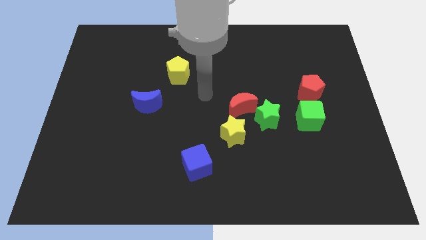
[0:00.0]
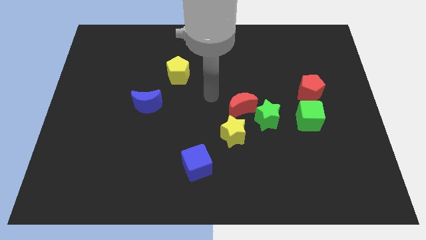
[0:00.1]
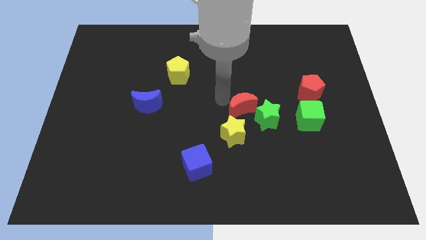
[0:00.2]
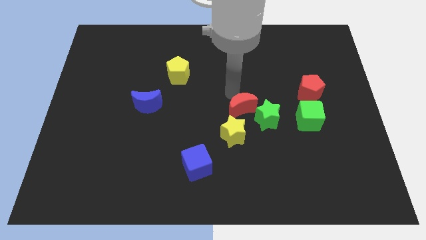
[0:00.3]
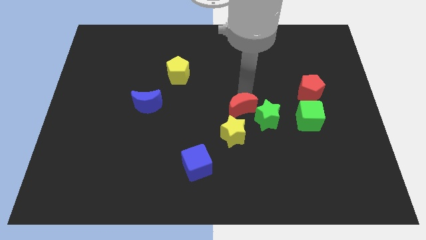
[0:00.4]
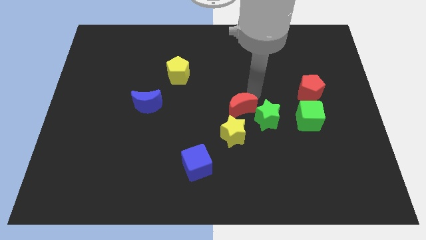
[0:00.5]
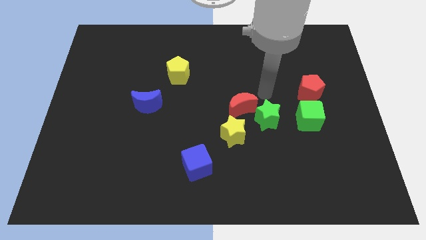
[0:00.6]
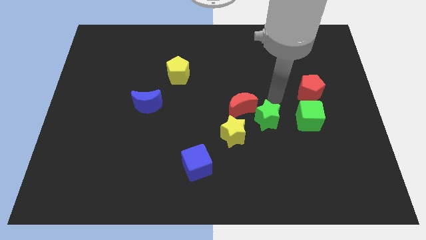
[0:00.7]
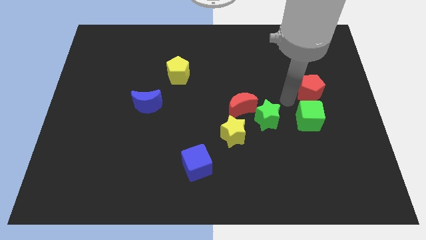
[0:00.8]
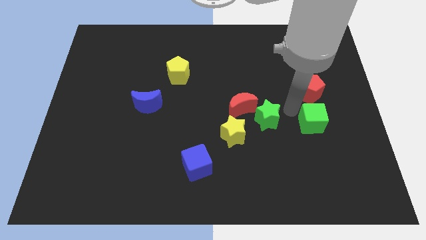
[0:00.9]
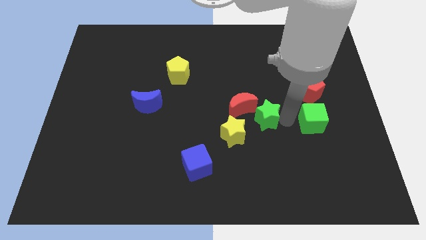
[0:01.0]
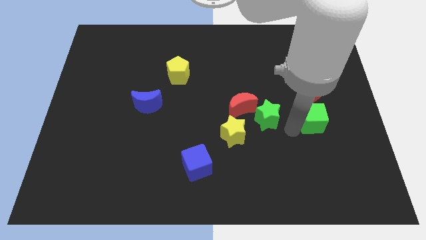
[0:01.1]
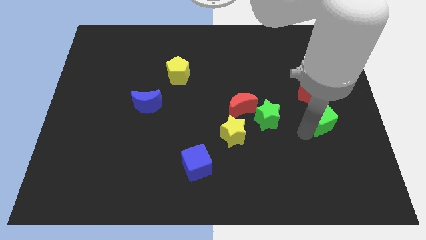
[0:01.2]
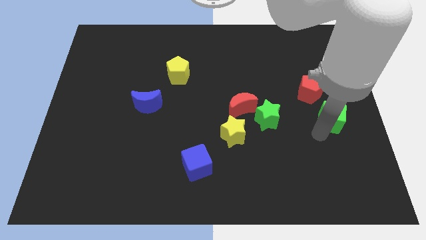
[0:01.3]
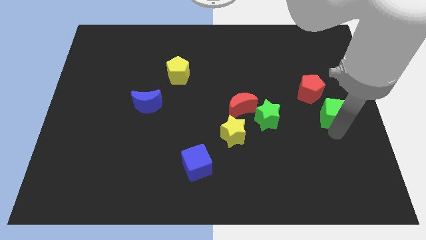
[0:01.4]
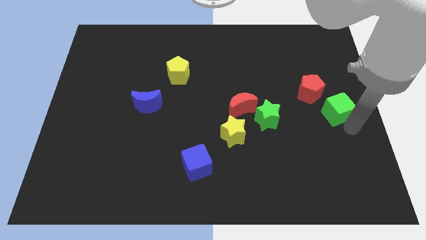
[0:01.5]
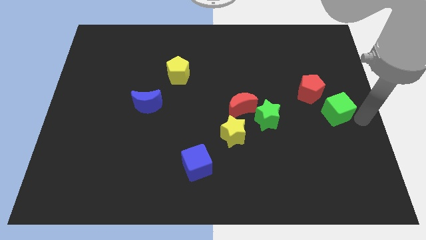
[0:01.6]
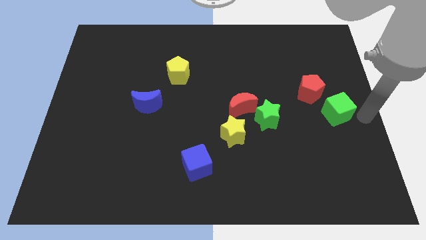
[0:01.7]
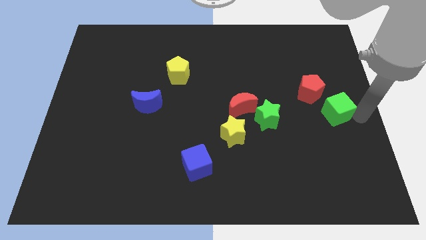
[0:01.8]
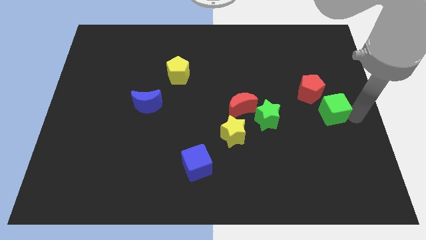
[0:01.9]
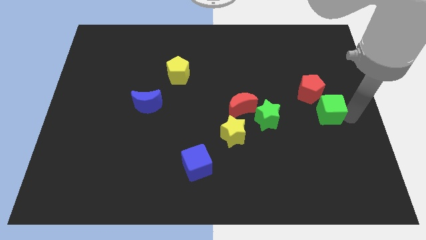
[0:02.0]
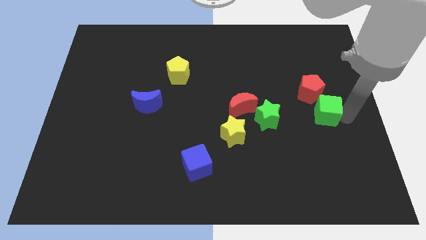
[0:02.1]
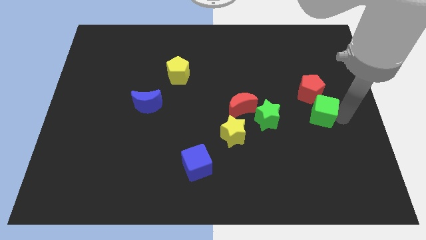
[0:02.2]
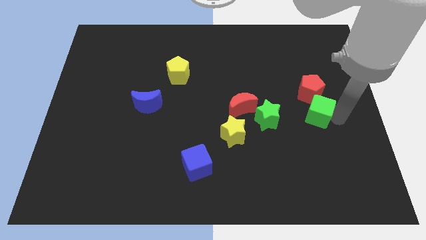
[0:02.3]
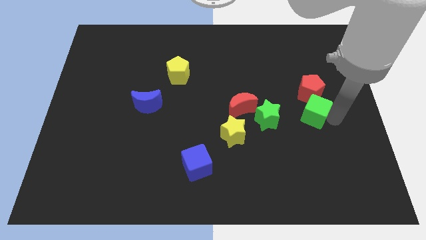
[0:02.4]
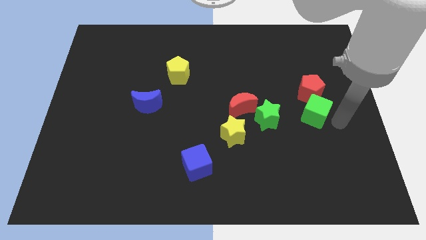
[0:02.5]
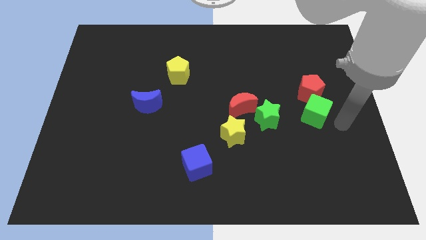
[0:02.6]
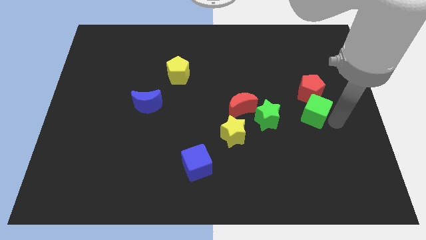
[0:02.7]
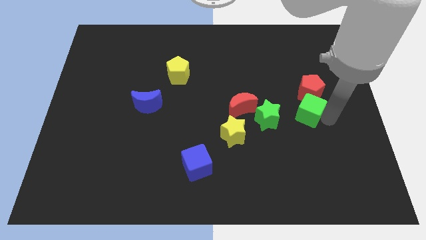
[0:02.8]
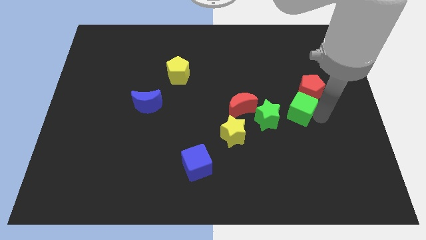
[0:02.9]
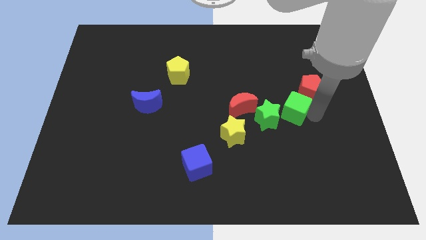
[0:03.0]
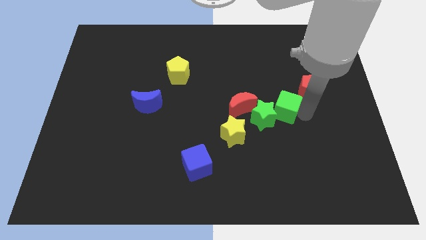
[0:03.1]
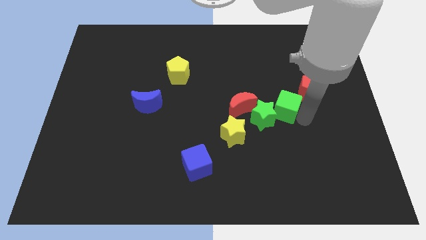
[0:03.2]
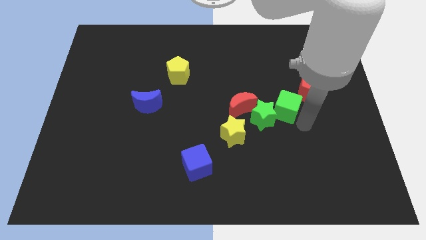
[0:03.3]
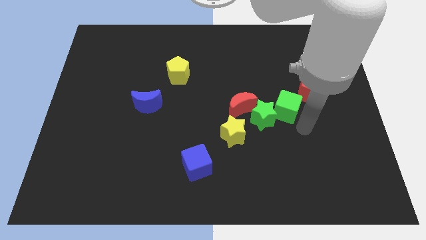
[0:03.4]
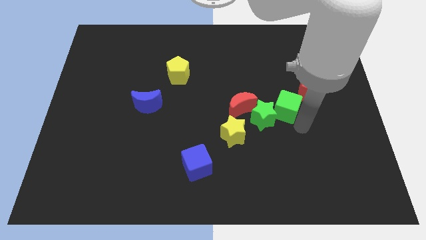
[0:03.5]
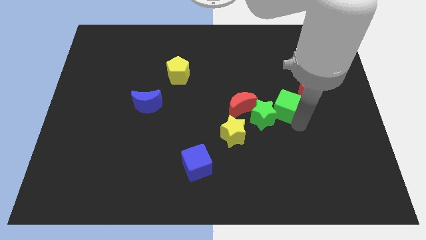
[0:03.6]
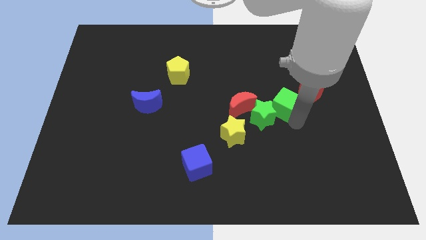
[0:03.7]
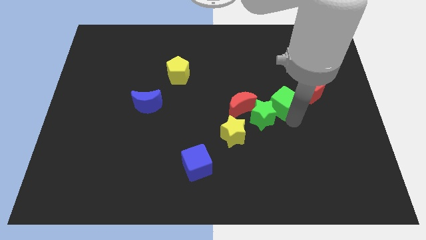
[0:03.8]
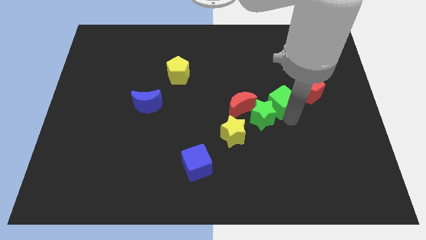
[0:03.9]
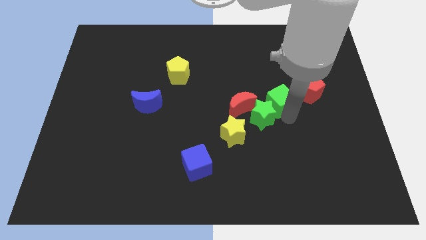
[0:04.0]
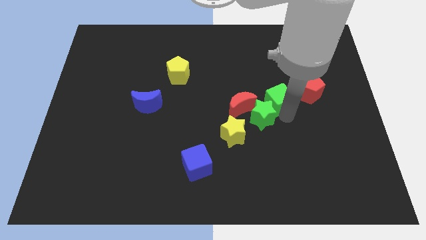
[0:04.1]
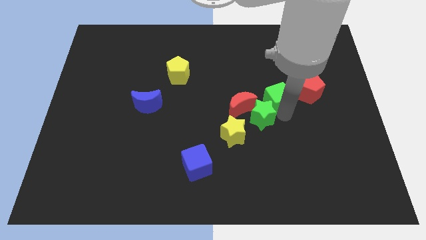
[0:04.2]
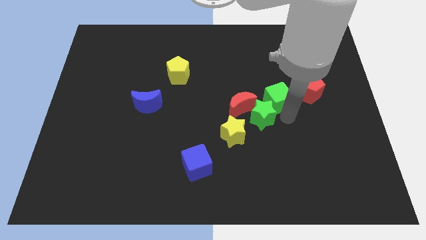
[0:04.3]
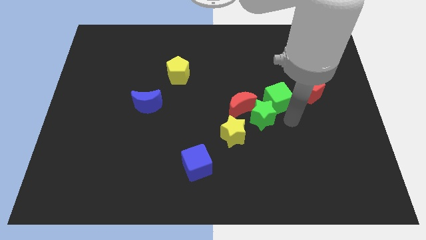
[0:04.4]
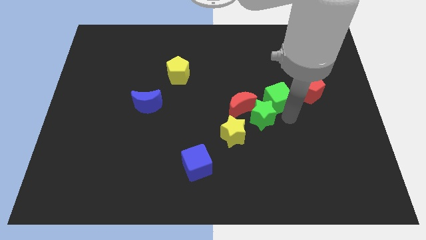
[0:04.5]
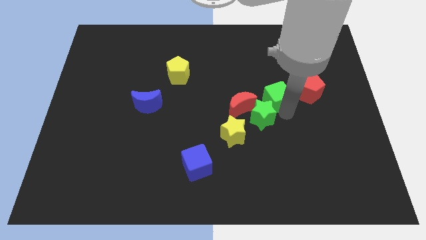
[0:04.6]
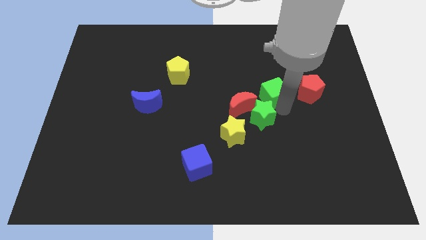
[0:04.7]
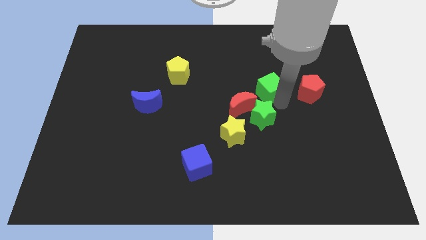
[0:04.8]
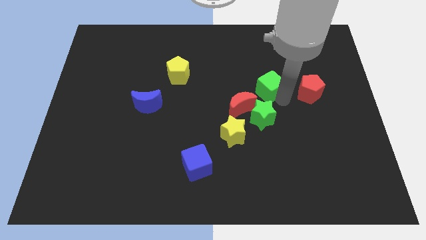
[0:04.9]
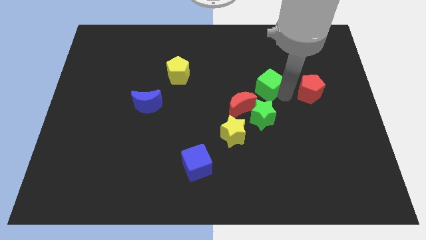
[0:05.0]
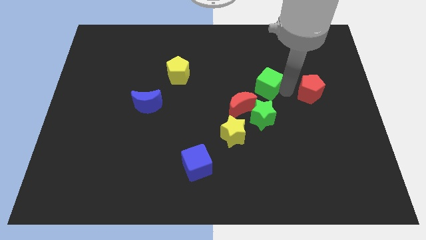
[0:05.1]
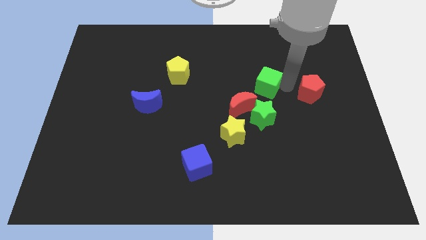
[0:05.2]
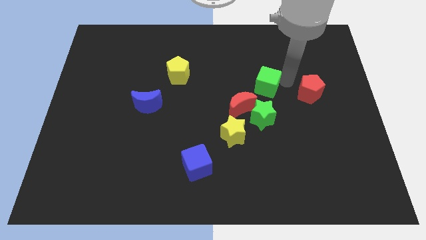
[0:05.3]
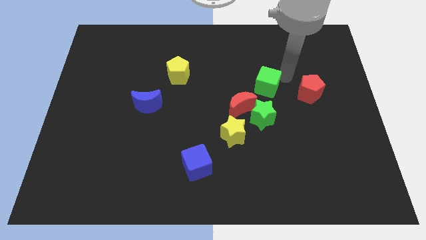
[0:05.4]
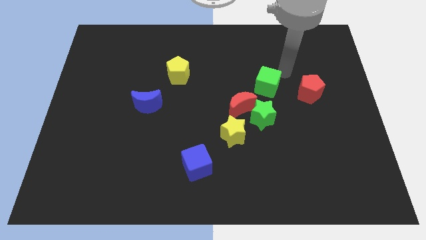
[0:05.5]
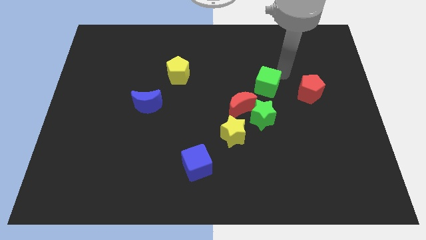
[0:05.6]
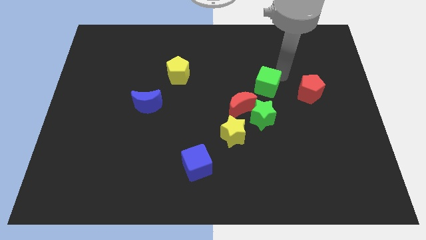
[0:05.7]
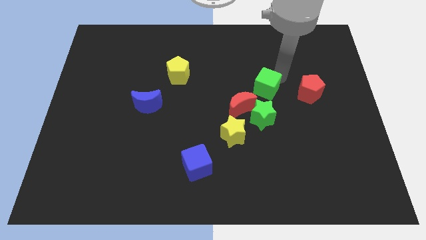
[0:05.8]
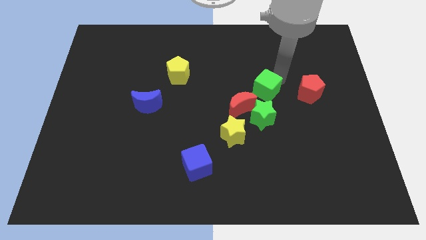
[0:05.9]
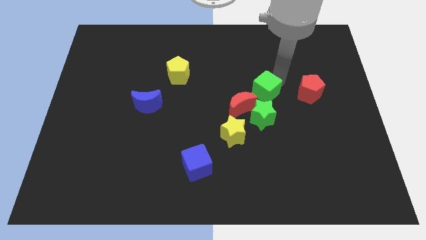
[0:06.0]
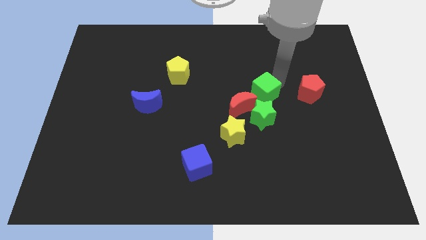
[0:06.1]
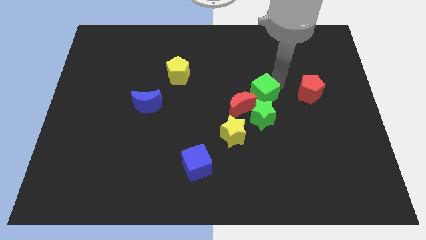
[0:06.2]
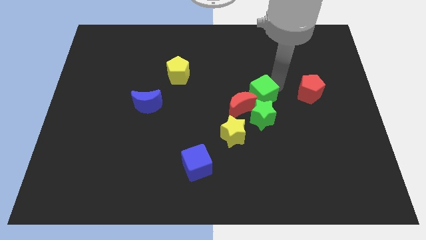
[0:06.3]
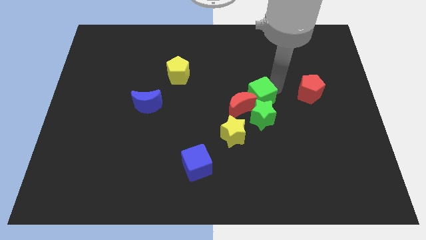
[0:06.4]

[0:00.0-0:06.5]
push the green cube to the red moon
